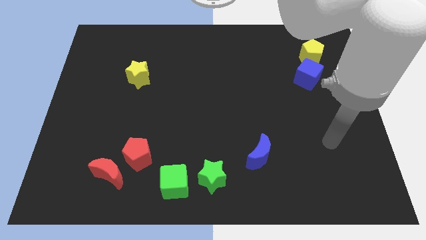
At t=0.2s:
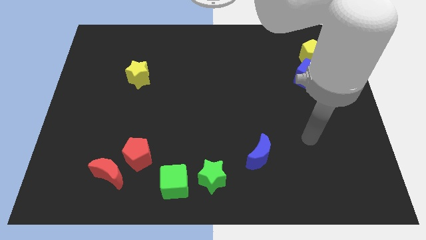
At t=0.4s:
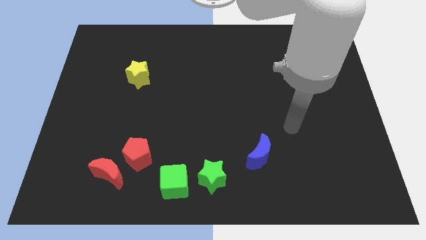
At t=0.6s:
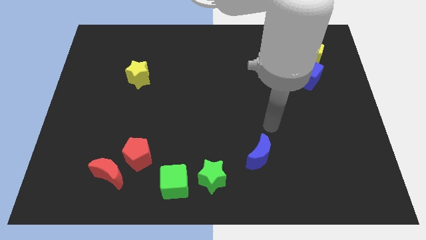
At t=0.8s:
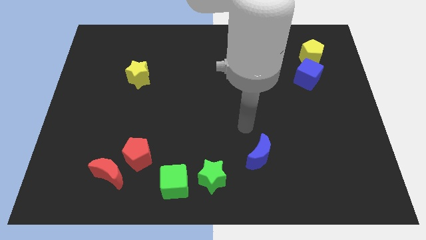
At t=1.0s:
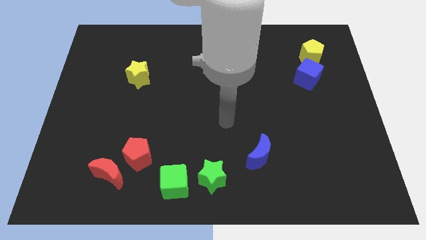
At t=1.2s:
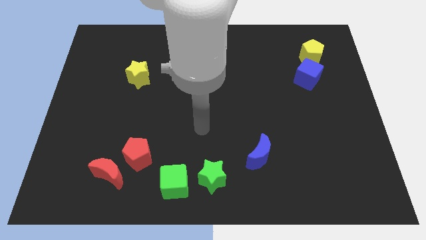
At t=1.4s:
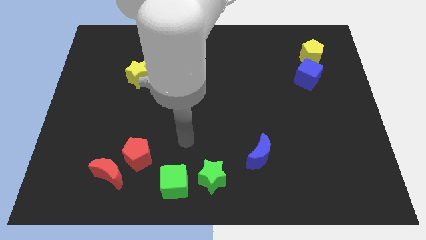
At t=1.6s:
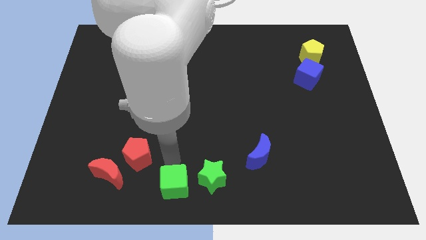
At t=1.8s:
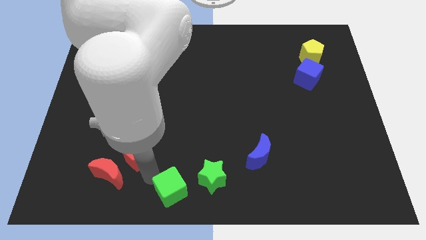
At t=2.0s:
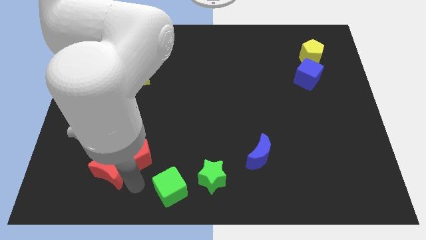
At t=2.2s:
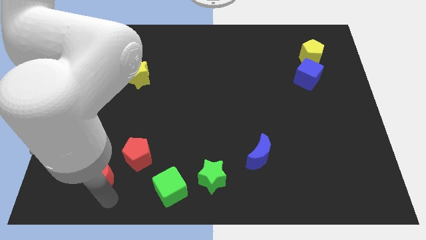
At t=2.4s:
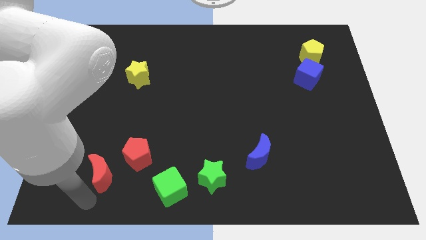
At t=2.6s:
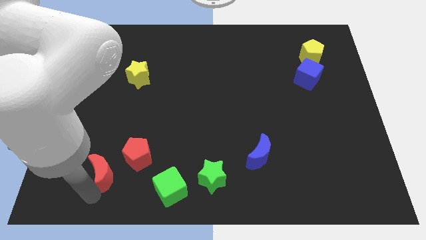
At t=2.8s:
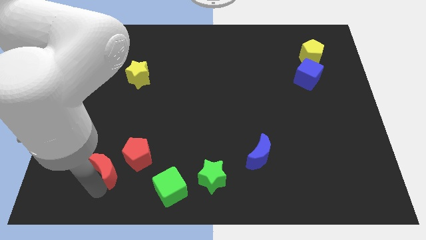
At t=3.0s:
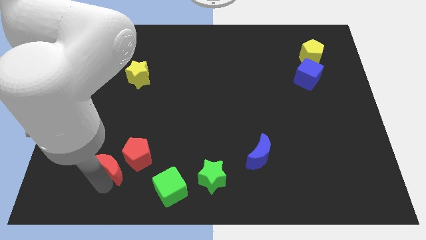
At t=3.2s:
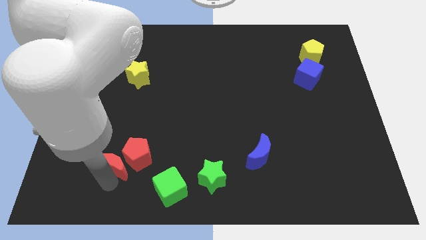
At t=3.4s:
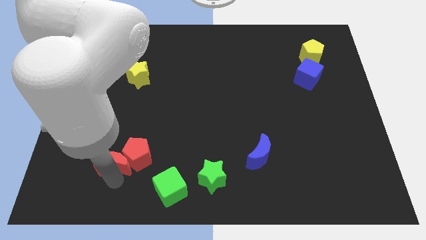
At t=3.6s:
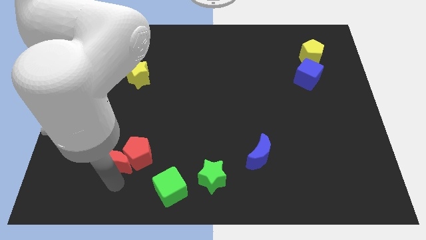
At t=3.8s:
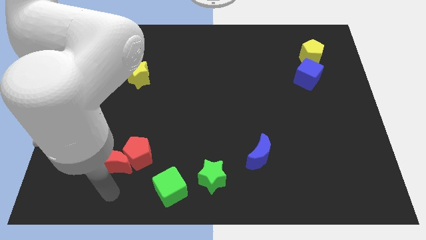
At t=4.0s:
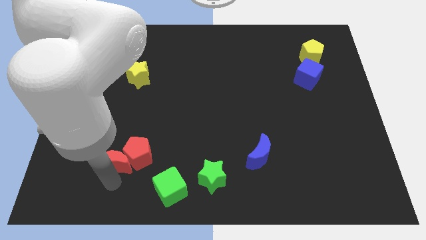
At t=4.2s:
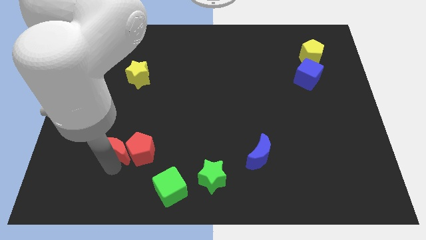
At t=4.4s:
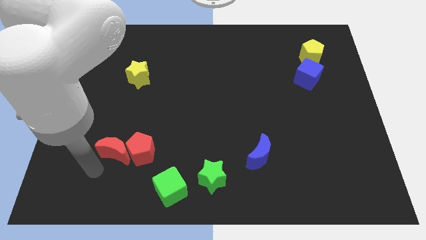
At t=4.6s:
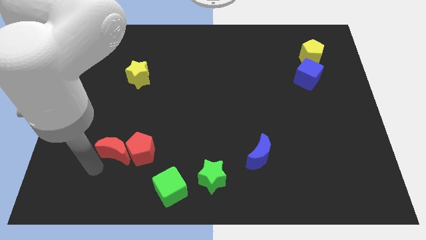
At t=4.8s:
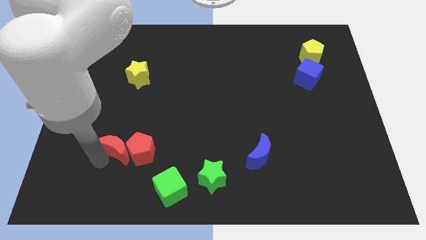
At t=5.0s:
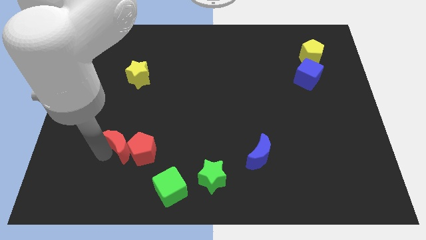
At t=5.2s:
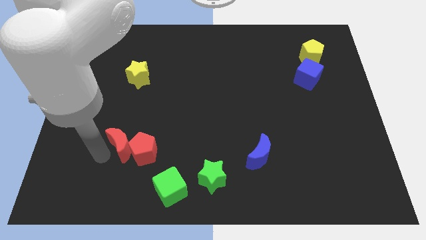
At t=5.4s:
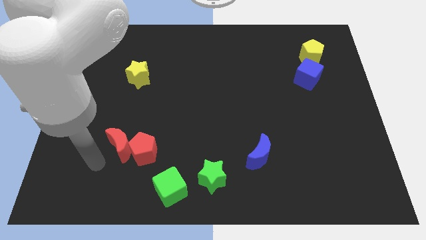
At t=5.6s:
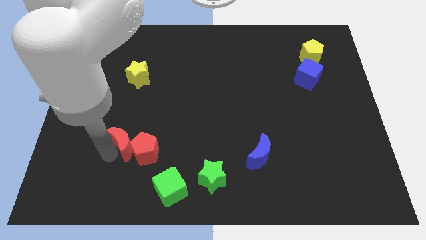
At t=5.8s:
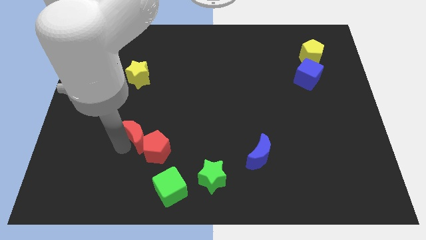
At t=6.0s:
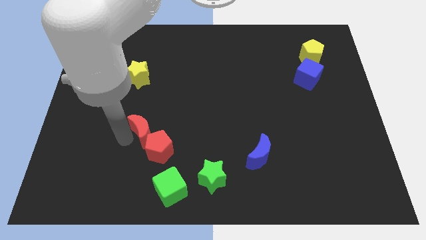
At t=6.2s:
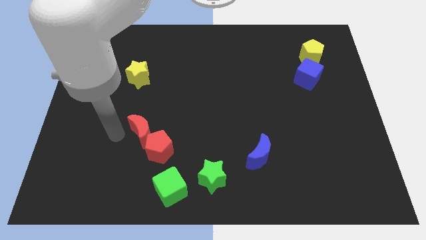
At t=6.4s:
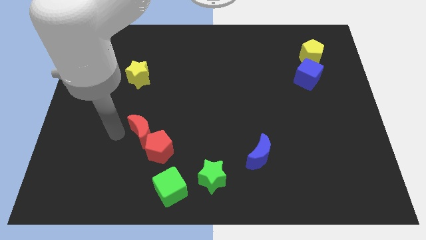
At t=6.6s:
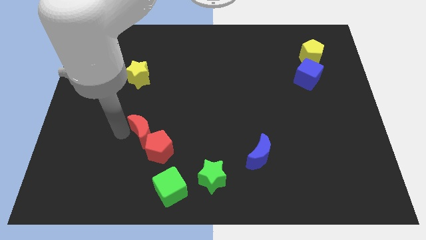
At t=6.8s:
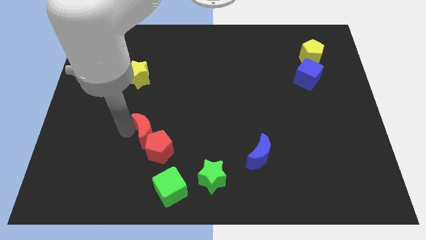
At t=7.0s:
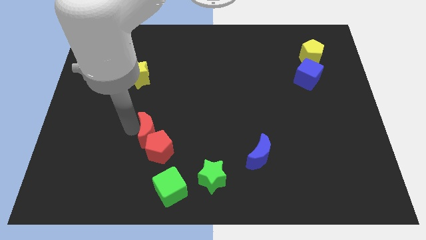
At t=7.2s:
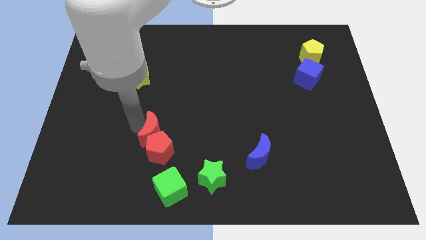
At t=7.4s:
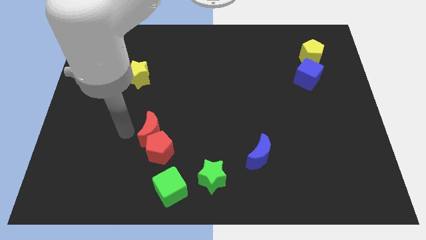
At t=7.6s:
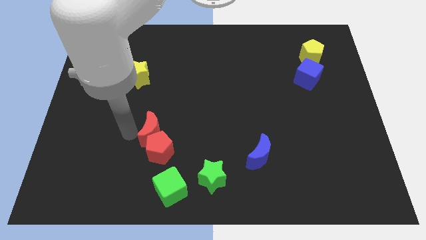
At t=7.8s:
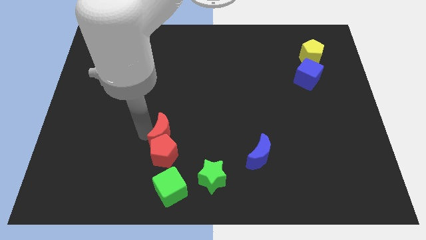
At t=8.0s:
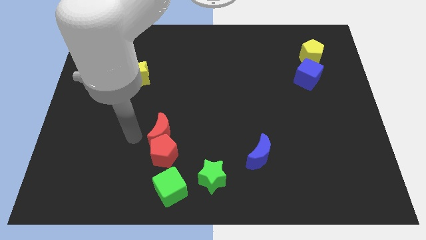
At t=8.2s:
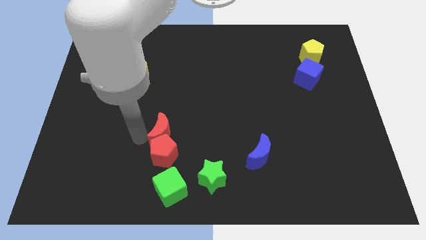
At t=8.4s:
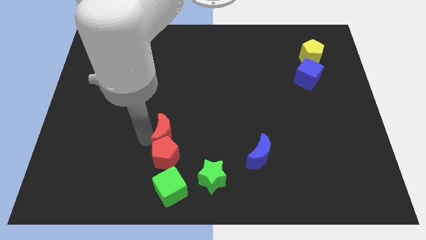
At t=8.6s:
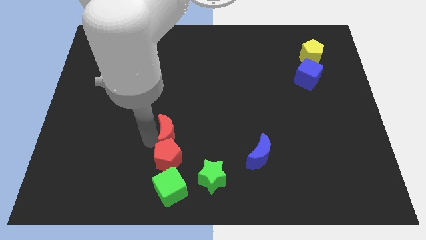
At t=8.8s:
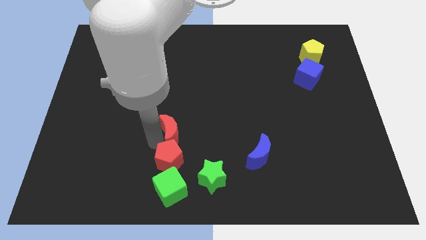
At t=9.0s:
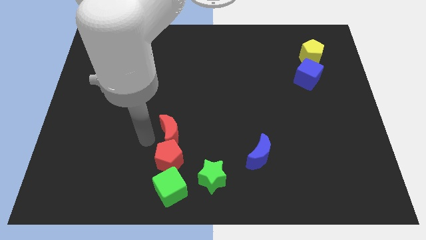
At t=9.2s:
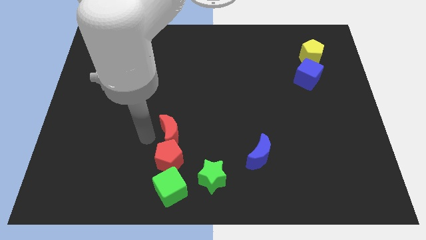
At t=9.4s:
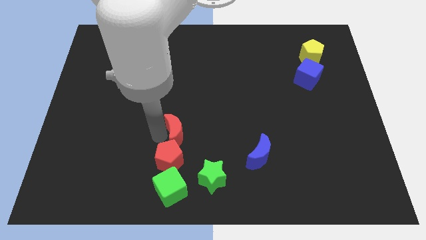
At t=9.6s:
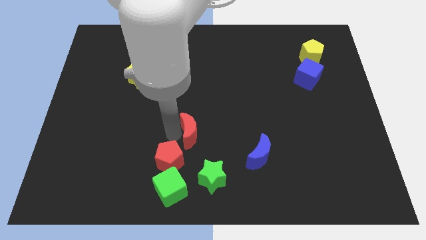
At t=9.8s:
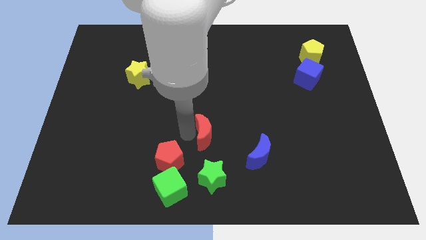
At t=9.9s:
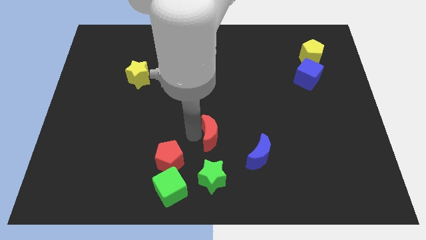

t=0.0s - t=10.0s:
slide the red moon to the top left of the blue moon

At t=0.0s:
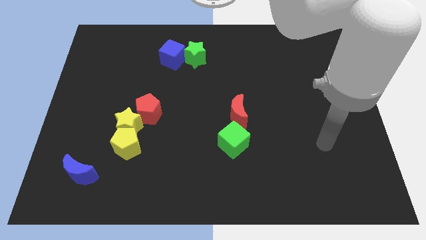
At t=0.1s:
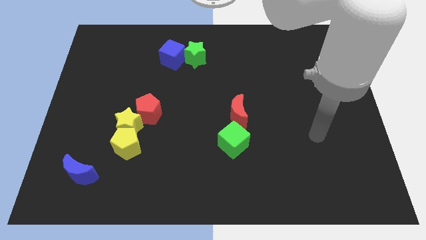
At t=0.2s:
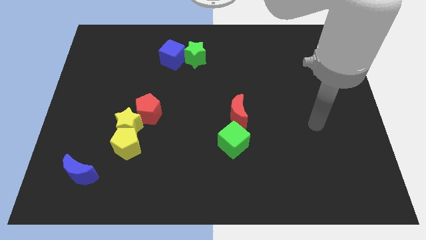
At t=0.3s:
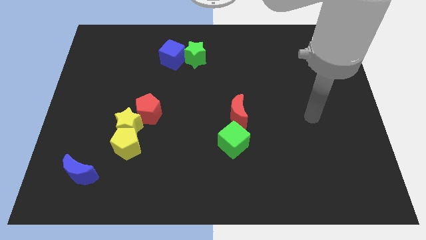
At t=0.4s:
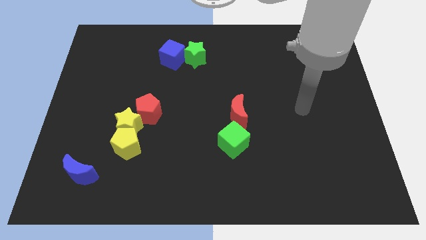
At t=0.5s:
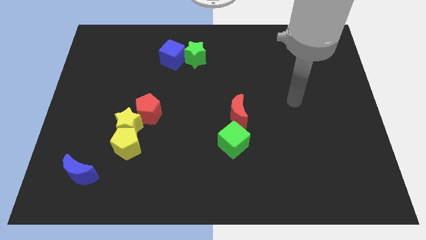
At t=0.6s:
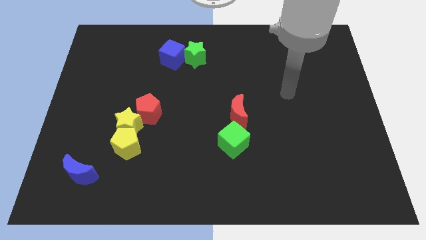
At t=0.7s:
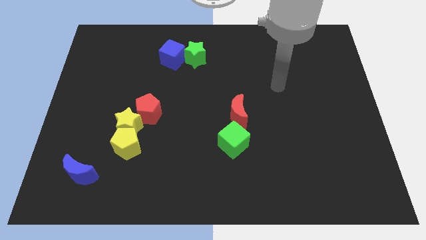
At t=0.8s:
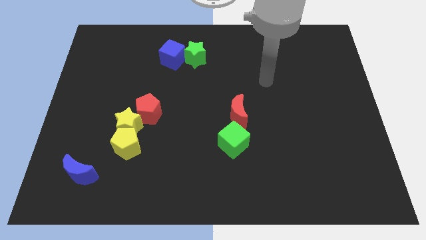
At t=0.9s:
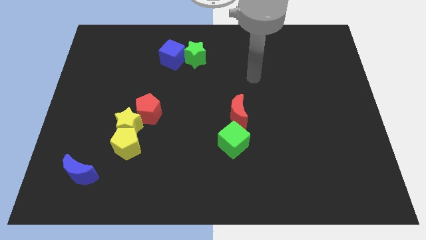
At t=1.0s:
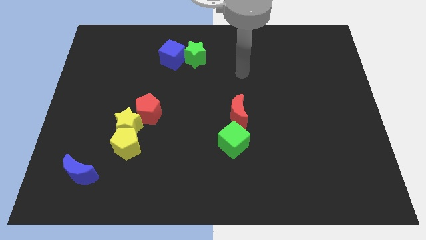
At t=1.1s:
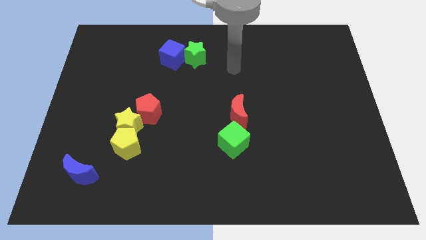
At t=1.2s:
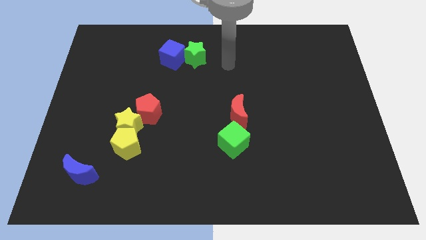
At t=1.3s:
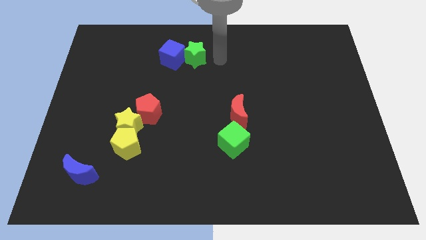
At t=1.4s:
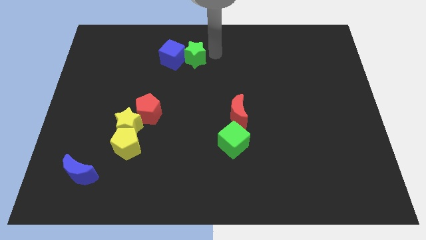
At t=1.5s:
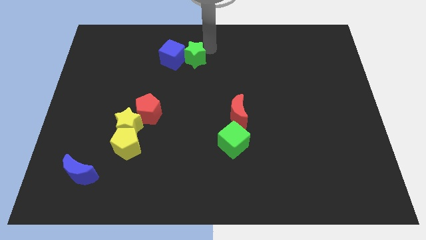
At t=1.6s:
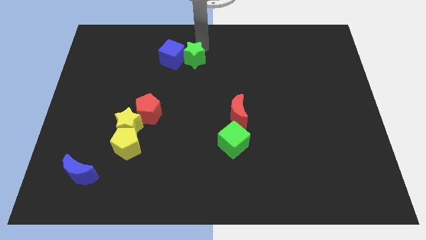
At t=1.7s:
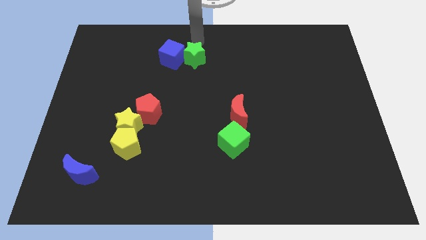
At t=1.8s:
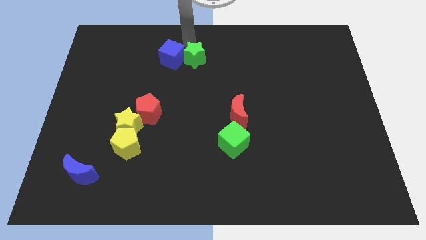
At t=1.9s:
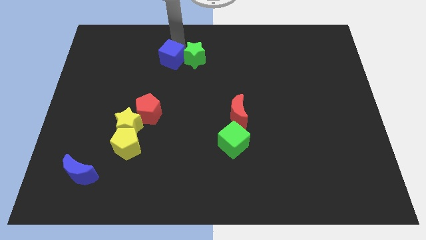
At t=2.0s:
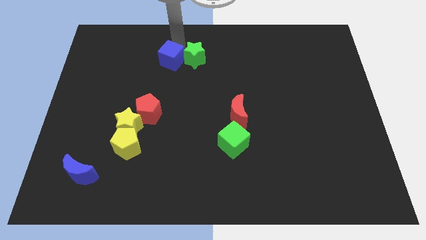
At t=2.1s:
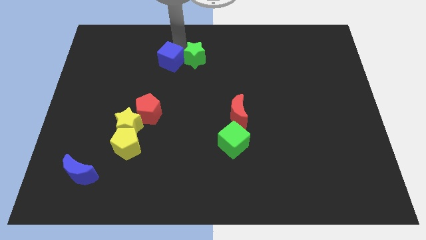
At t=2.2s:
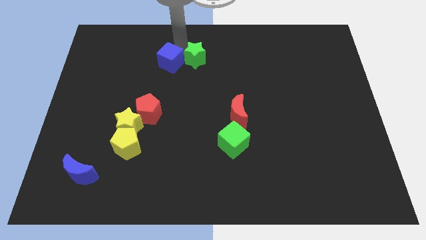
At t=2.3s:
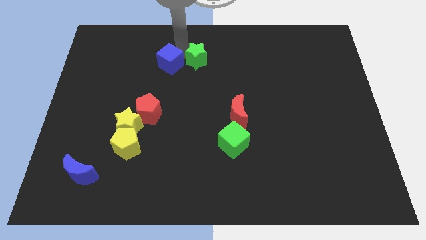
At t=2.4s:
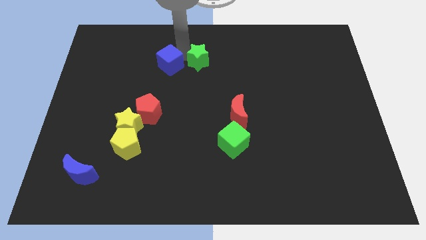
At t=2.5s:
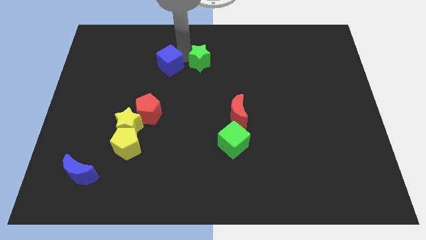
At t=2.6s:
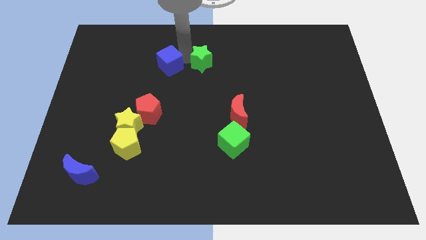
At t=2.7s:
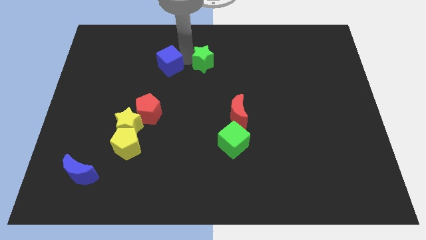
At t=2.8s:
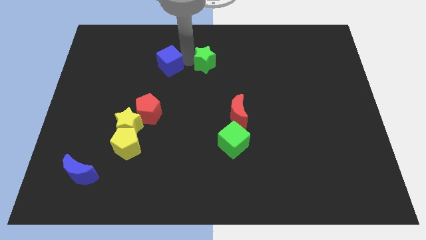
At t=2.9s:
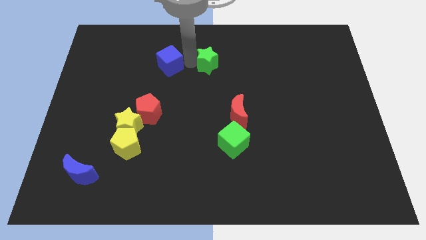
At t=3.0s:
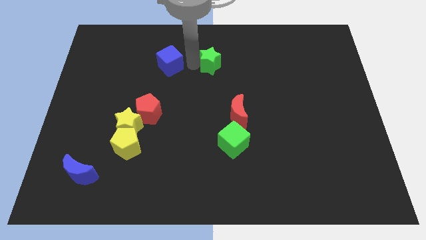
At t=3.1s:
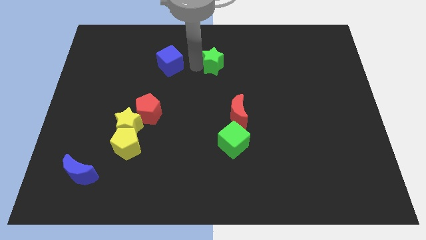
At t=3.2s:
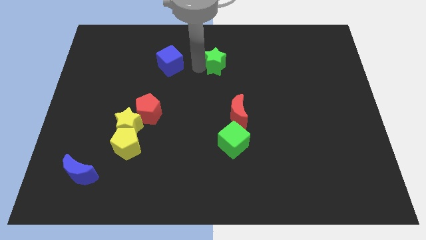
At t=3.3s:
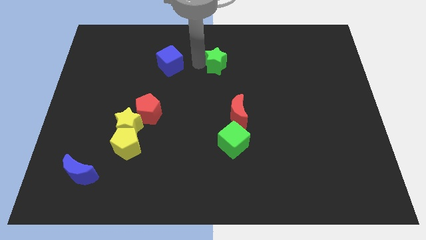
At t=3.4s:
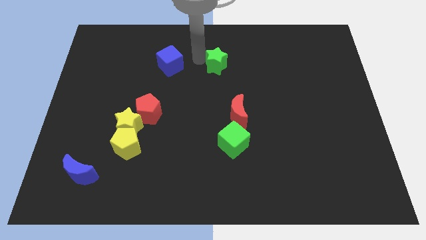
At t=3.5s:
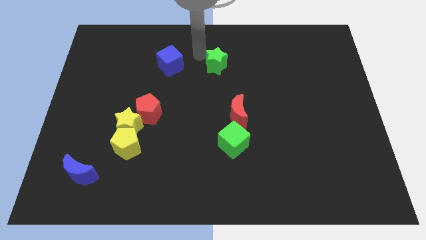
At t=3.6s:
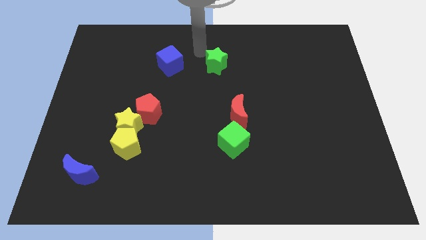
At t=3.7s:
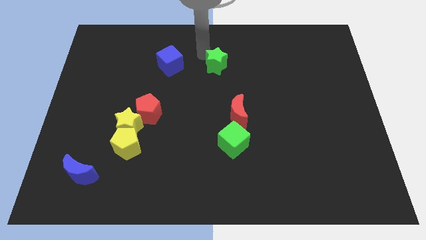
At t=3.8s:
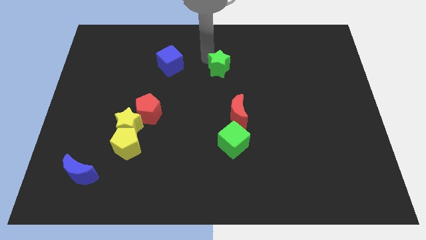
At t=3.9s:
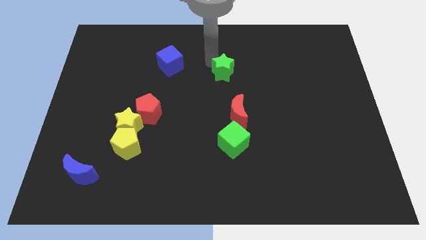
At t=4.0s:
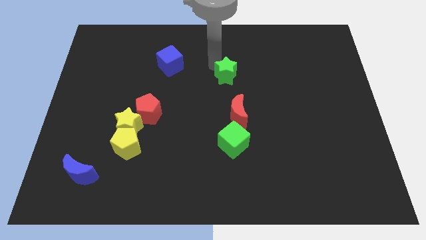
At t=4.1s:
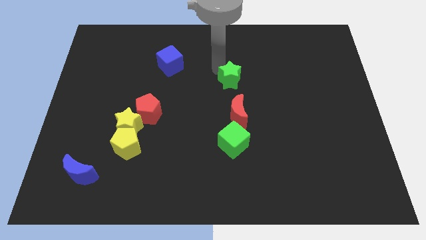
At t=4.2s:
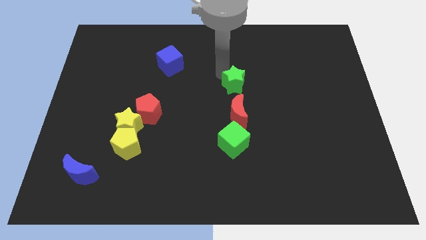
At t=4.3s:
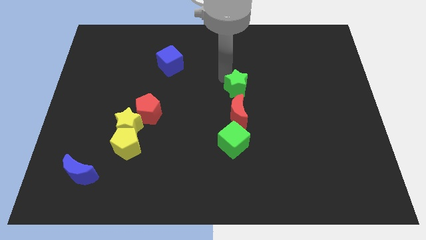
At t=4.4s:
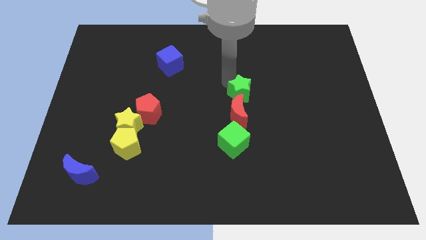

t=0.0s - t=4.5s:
push the green star diagonally up and to the right of the red moon
